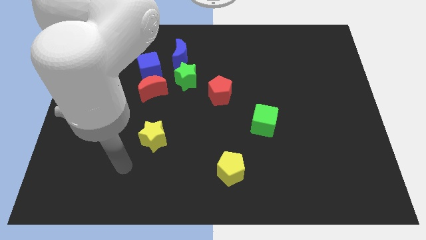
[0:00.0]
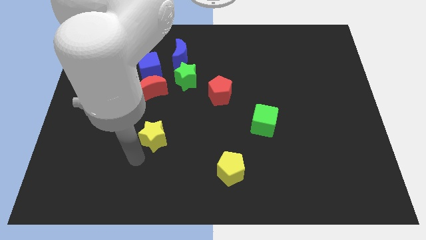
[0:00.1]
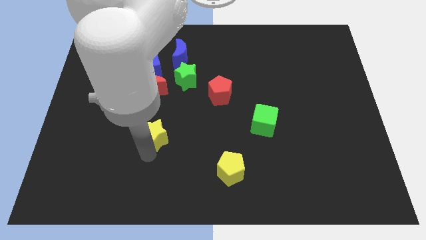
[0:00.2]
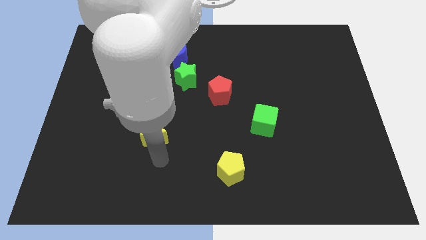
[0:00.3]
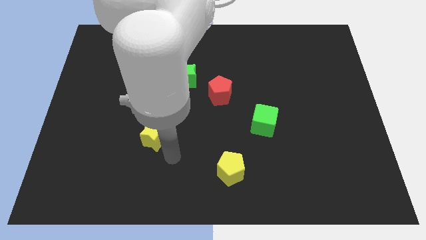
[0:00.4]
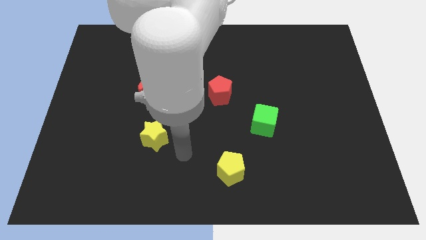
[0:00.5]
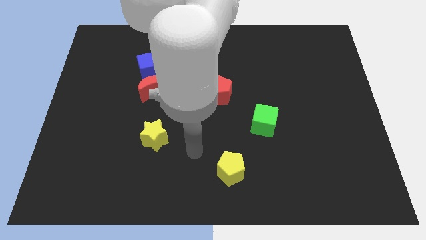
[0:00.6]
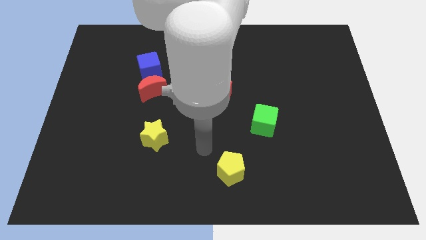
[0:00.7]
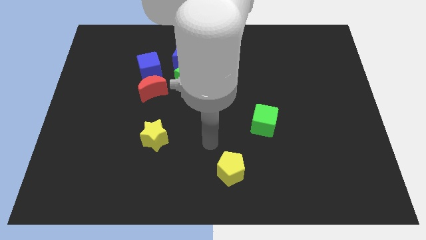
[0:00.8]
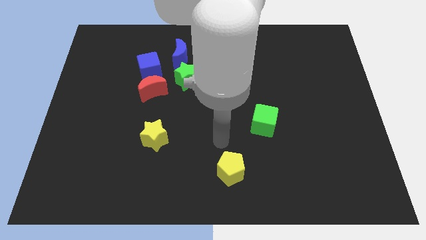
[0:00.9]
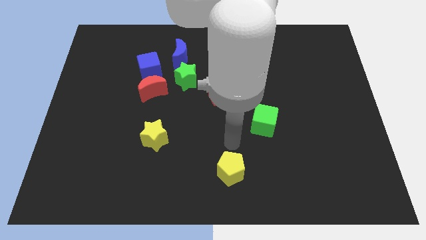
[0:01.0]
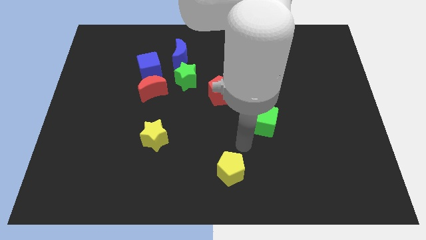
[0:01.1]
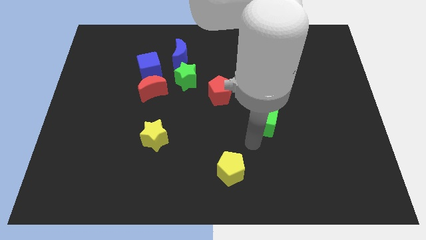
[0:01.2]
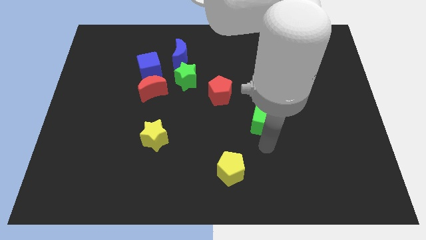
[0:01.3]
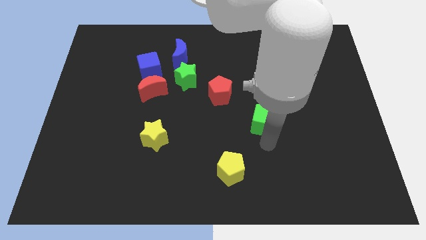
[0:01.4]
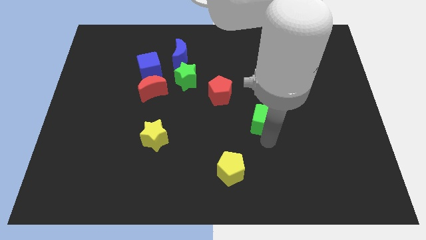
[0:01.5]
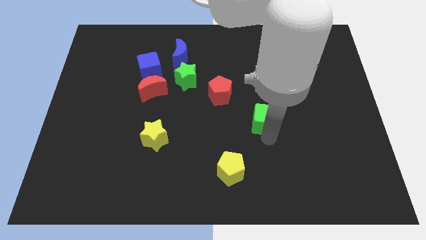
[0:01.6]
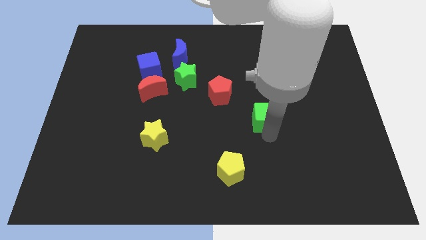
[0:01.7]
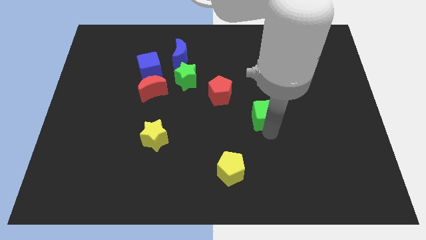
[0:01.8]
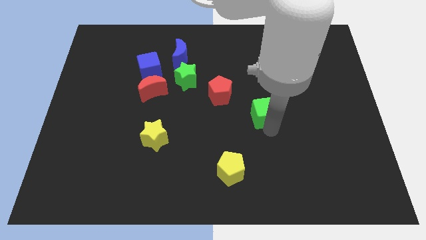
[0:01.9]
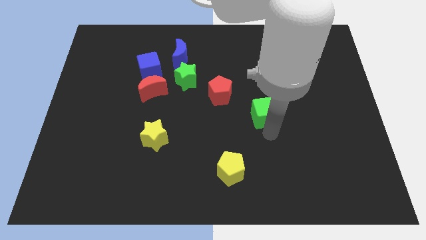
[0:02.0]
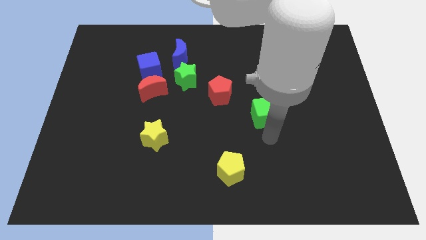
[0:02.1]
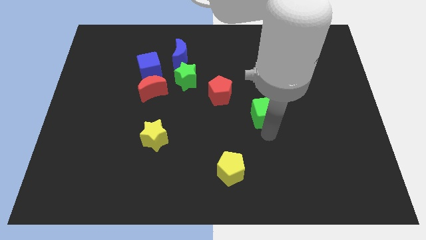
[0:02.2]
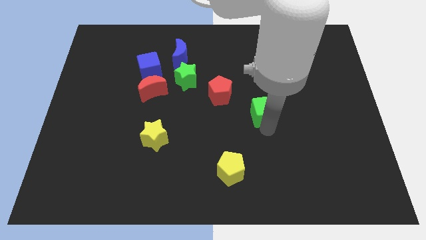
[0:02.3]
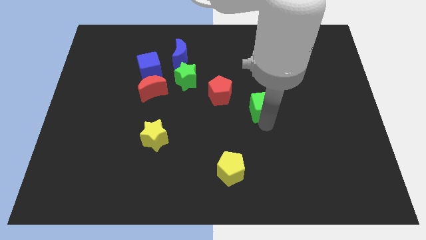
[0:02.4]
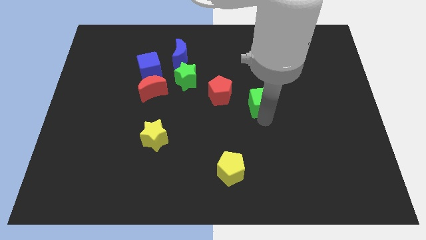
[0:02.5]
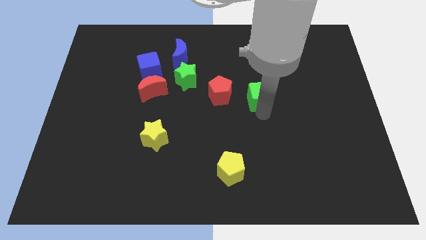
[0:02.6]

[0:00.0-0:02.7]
push the green cube upwards a little

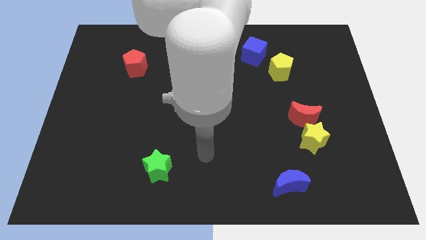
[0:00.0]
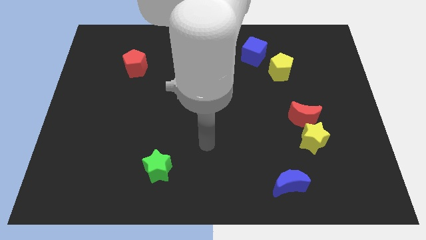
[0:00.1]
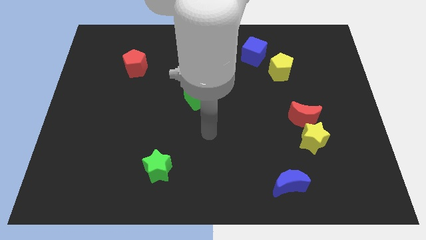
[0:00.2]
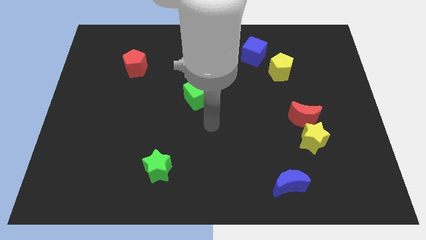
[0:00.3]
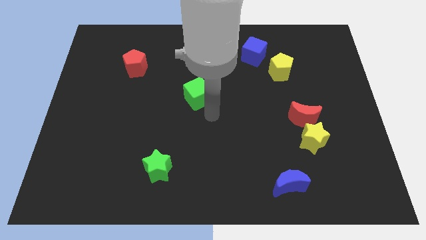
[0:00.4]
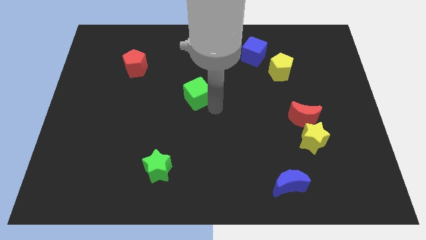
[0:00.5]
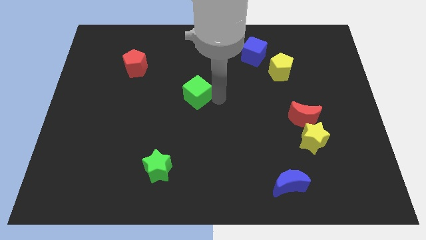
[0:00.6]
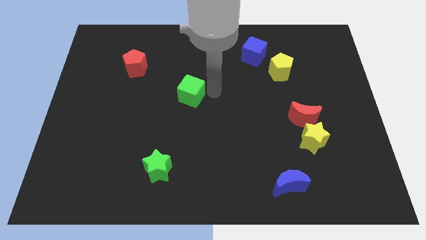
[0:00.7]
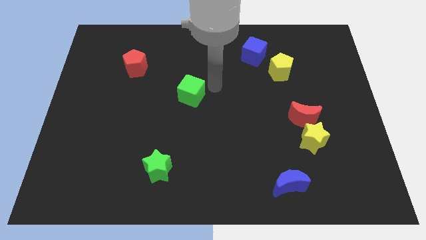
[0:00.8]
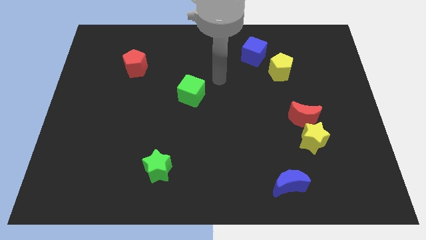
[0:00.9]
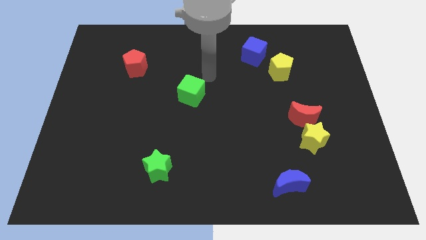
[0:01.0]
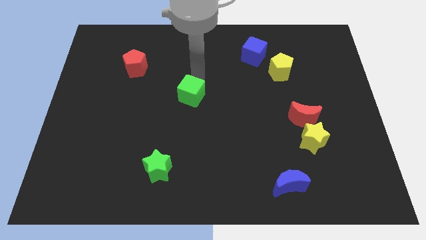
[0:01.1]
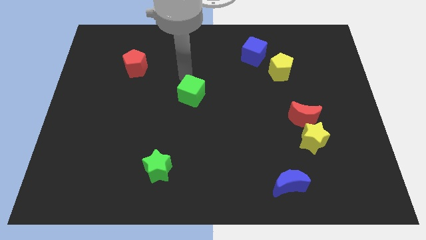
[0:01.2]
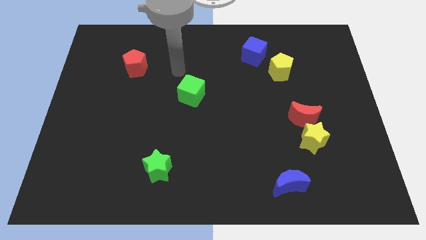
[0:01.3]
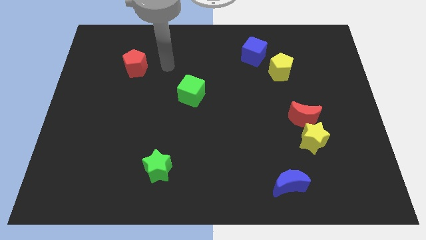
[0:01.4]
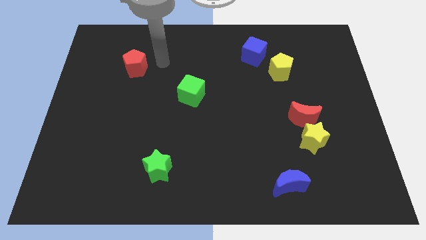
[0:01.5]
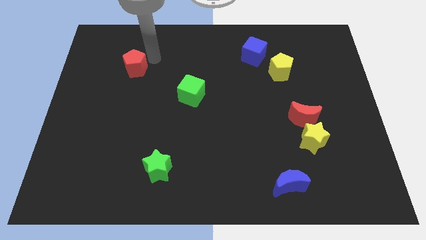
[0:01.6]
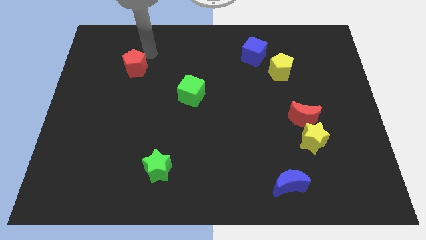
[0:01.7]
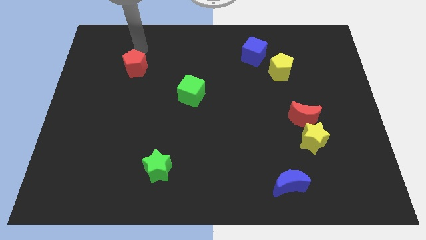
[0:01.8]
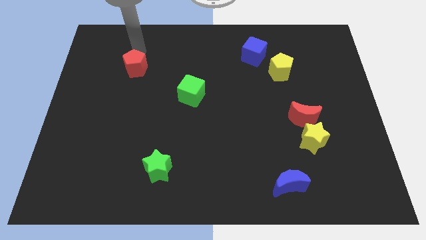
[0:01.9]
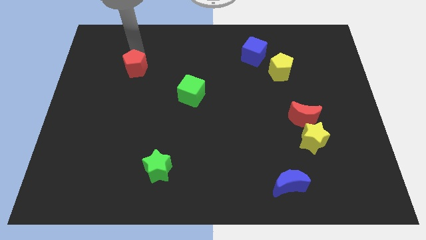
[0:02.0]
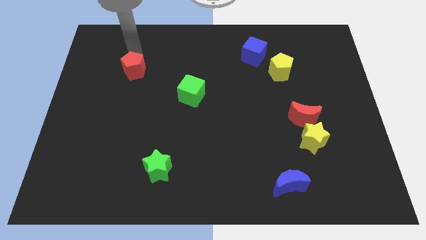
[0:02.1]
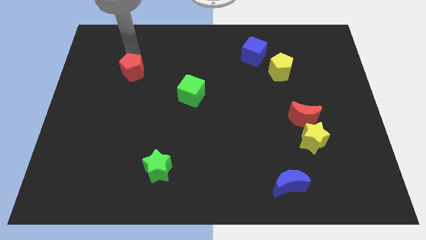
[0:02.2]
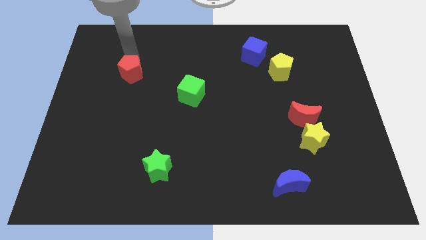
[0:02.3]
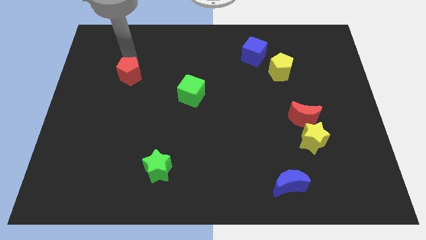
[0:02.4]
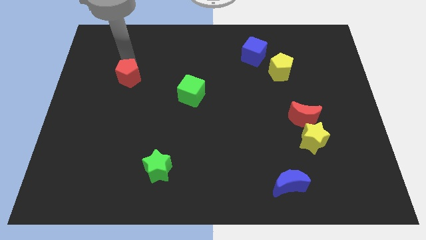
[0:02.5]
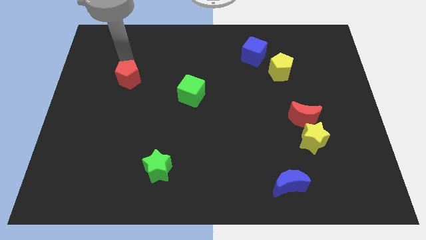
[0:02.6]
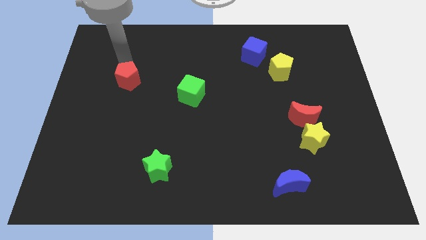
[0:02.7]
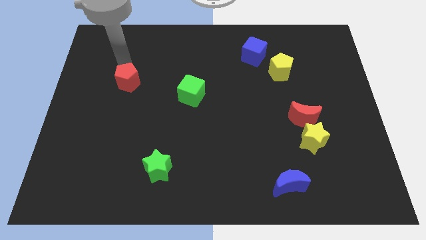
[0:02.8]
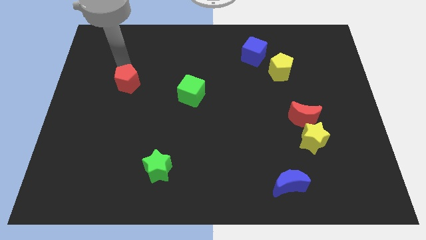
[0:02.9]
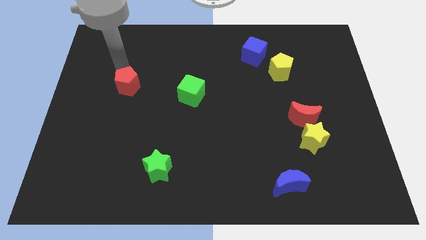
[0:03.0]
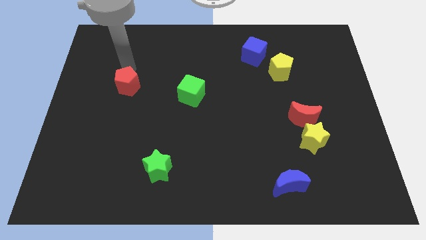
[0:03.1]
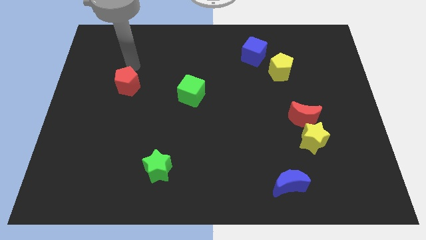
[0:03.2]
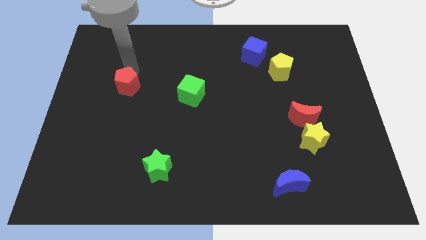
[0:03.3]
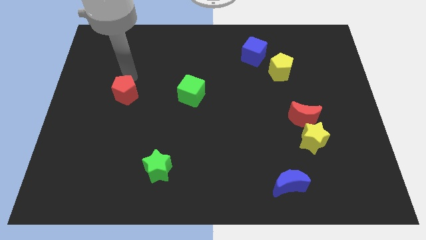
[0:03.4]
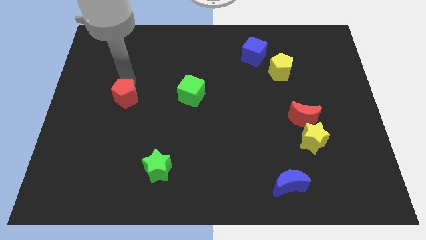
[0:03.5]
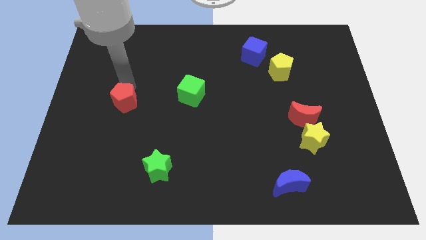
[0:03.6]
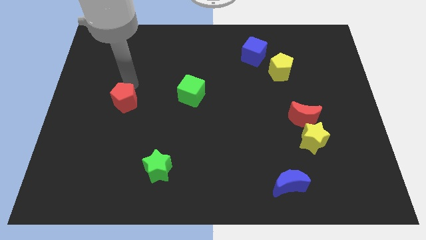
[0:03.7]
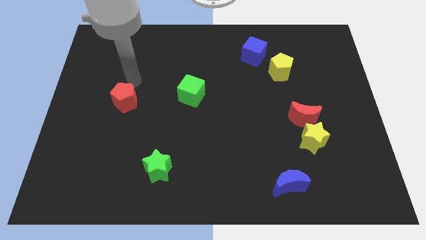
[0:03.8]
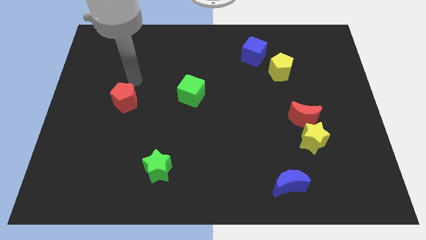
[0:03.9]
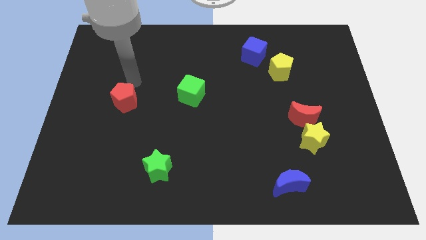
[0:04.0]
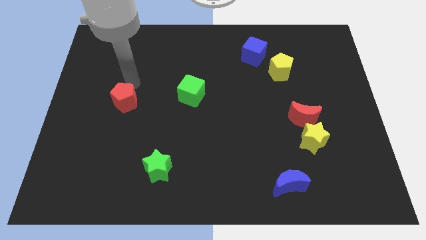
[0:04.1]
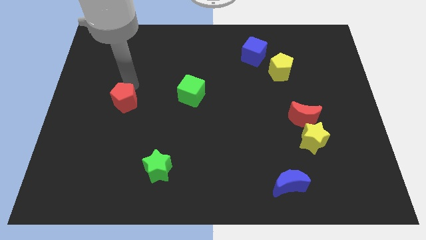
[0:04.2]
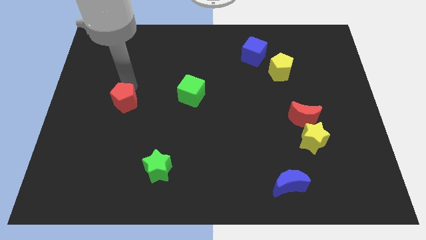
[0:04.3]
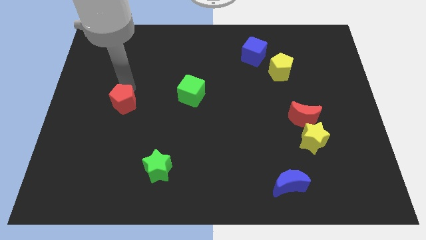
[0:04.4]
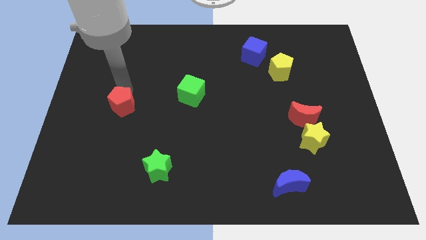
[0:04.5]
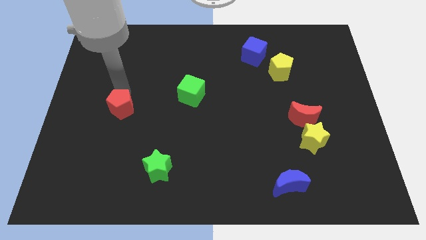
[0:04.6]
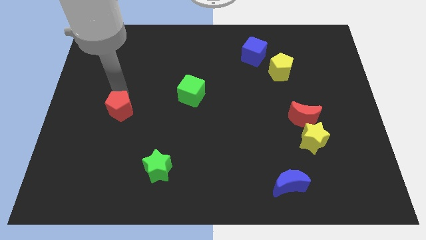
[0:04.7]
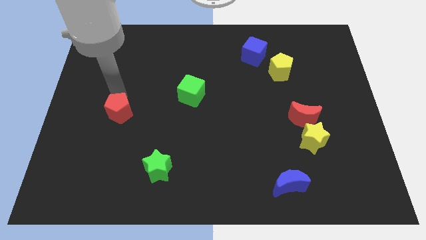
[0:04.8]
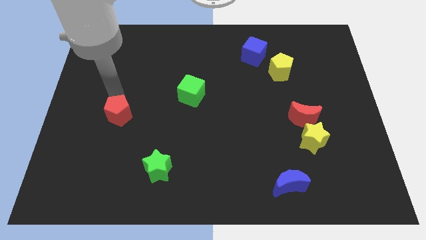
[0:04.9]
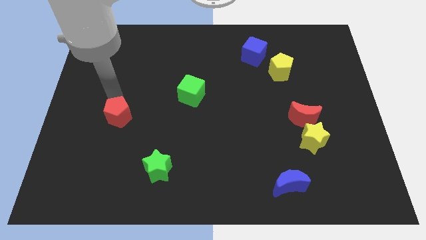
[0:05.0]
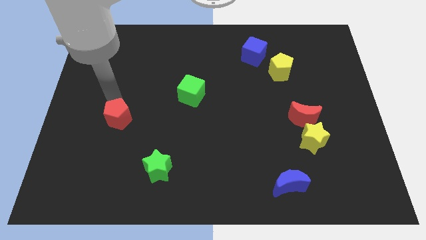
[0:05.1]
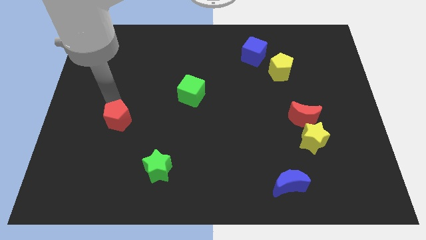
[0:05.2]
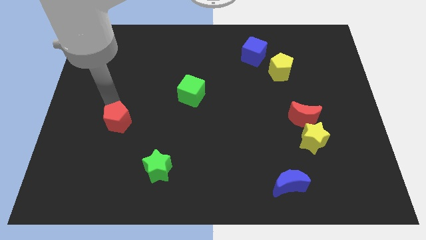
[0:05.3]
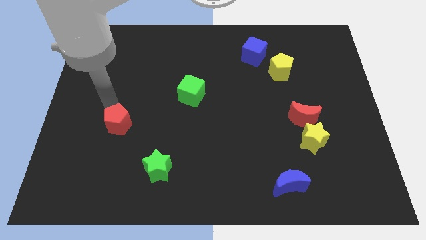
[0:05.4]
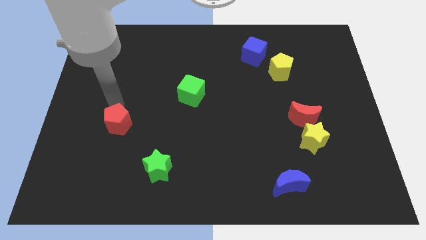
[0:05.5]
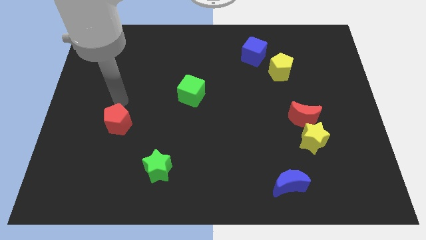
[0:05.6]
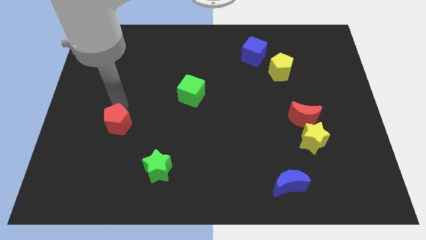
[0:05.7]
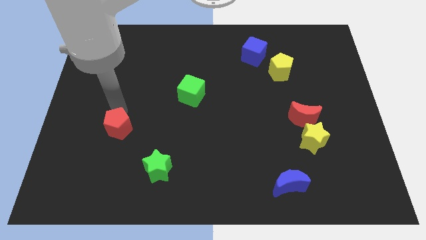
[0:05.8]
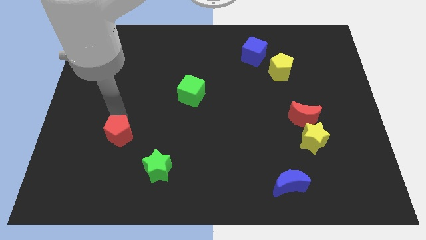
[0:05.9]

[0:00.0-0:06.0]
move the red pentagon down
